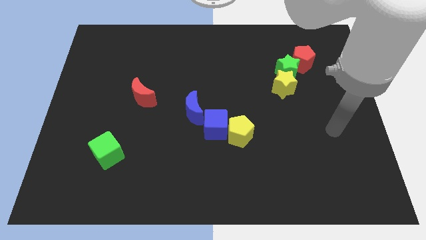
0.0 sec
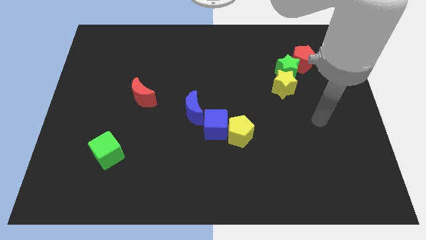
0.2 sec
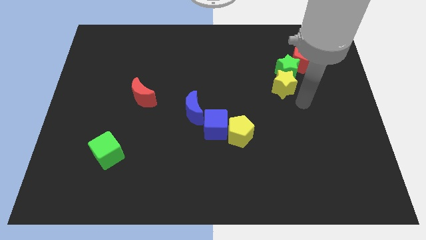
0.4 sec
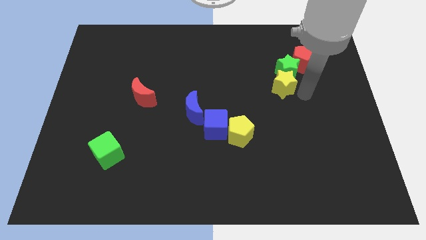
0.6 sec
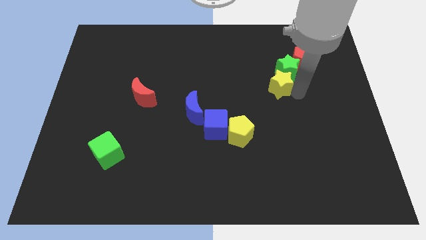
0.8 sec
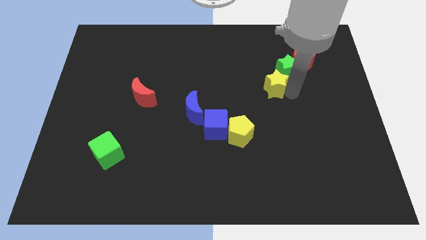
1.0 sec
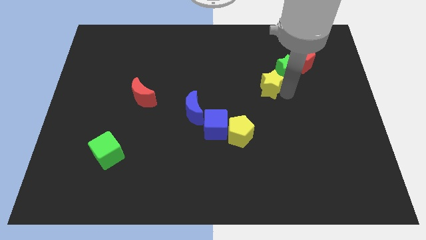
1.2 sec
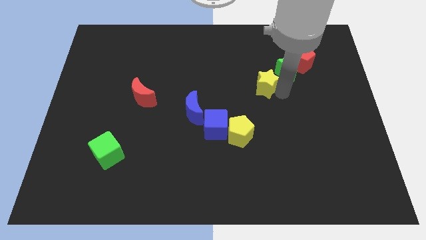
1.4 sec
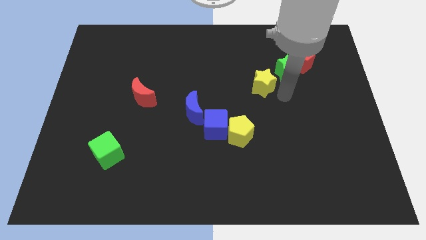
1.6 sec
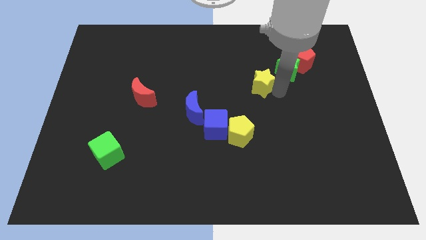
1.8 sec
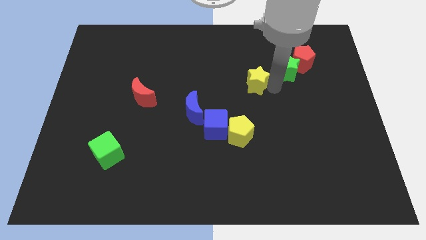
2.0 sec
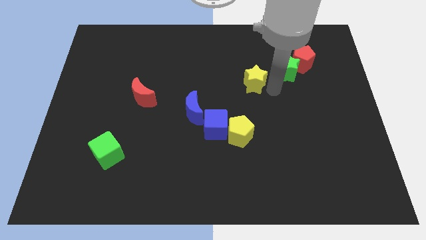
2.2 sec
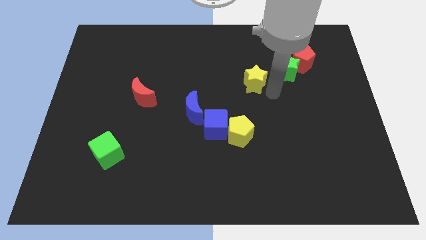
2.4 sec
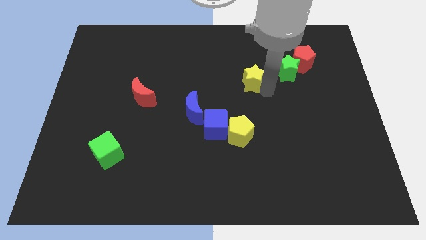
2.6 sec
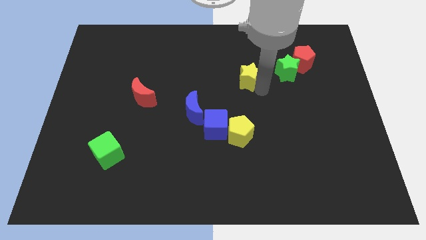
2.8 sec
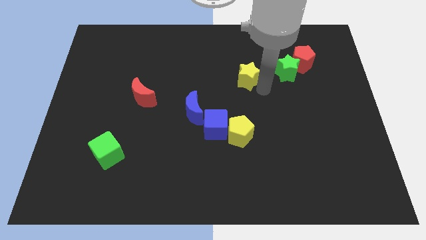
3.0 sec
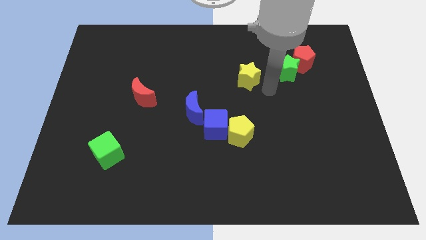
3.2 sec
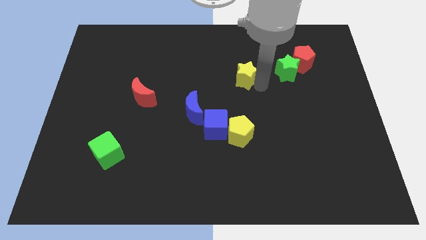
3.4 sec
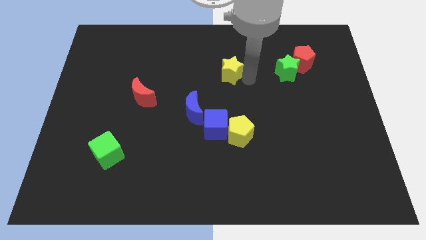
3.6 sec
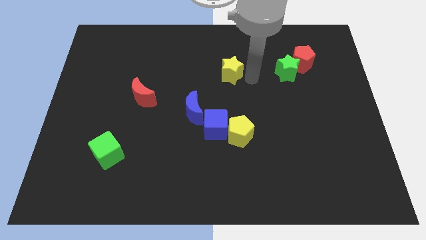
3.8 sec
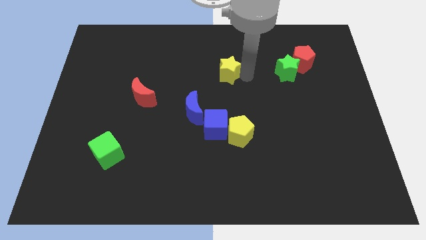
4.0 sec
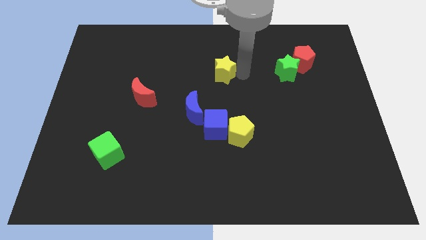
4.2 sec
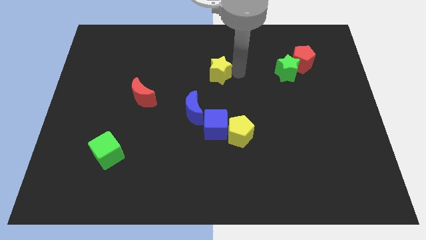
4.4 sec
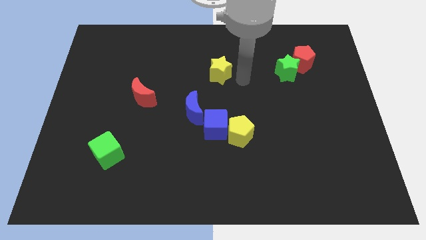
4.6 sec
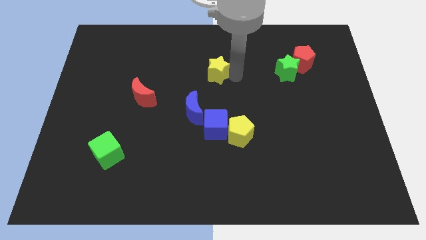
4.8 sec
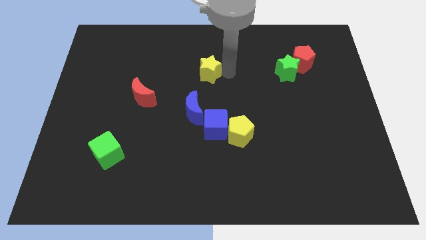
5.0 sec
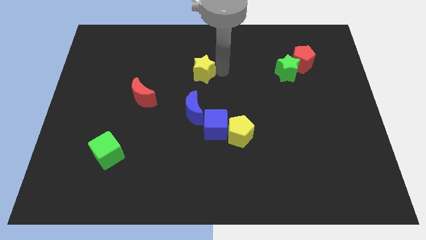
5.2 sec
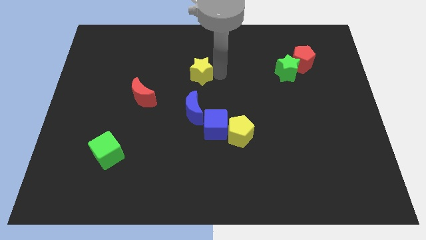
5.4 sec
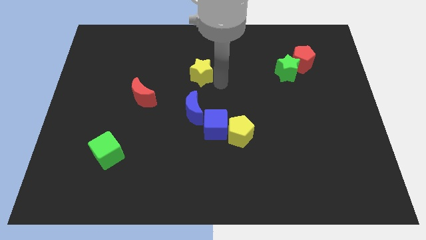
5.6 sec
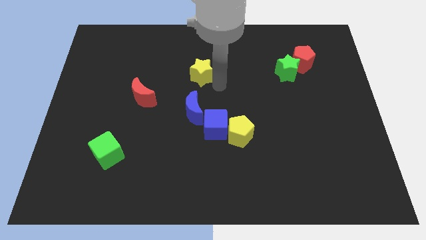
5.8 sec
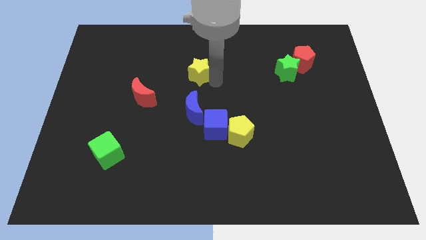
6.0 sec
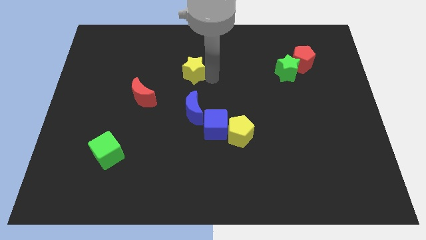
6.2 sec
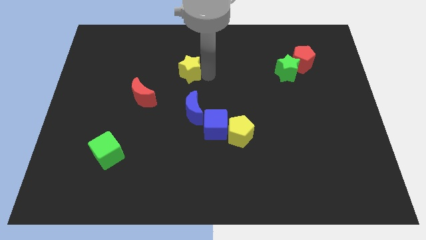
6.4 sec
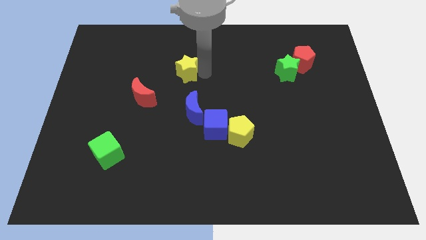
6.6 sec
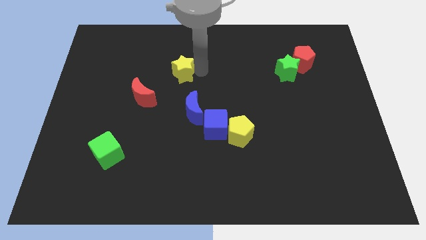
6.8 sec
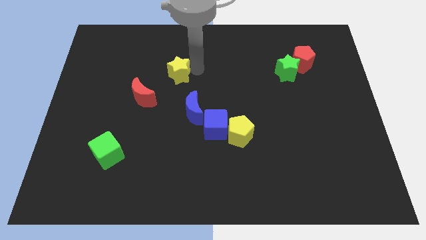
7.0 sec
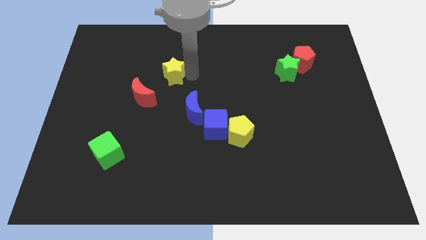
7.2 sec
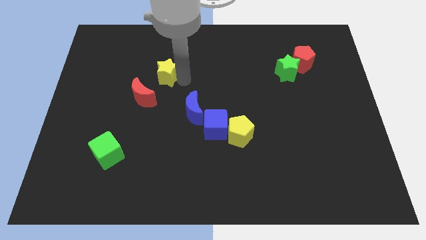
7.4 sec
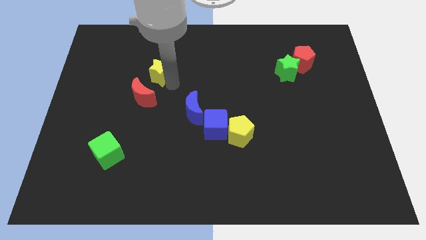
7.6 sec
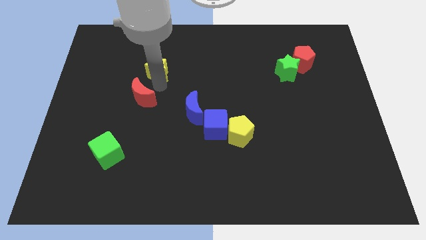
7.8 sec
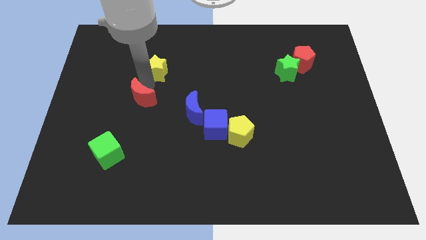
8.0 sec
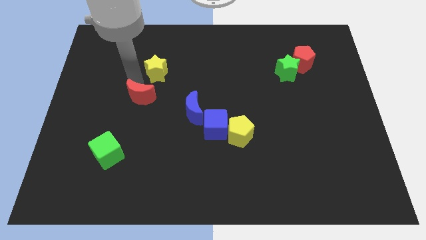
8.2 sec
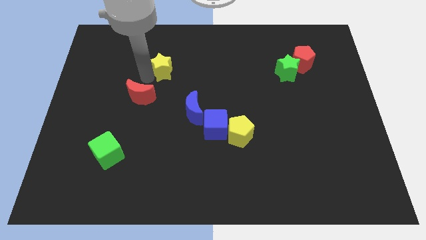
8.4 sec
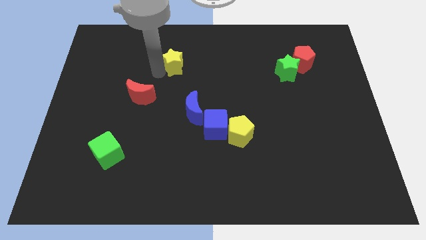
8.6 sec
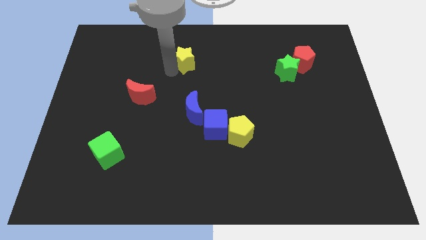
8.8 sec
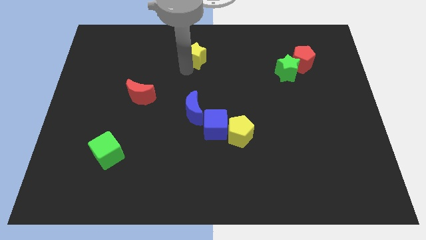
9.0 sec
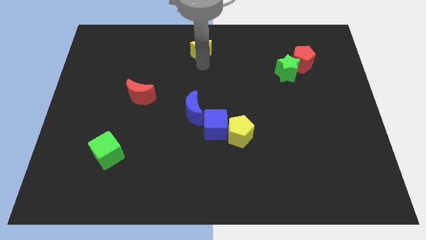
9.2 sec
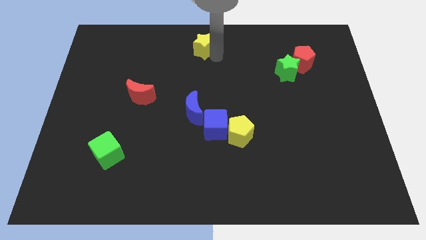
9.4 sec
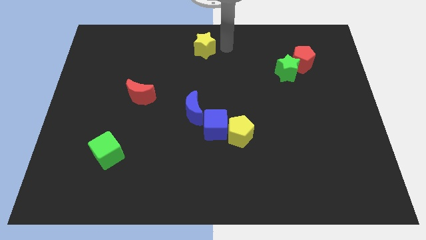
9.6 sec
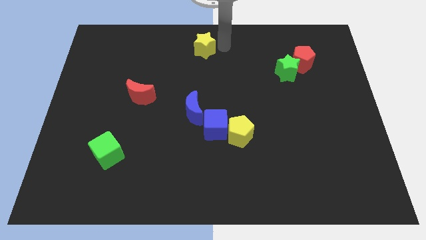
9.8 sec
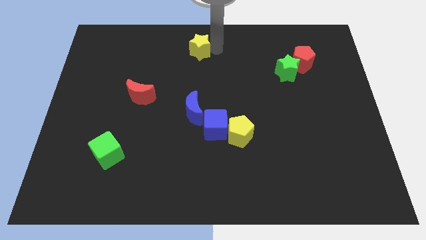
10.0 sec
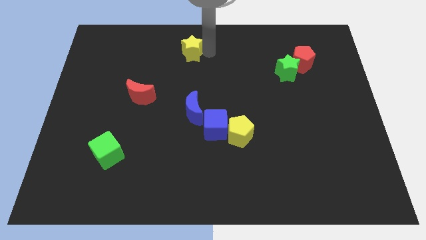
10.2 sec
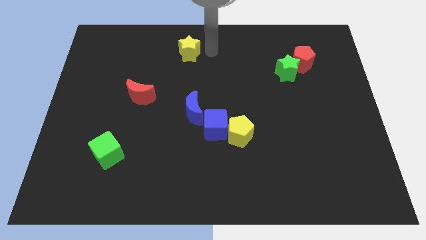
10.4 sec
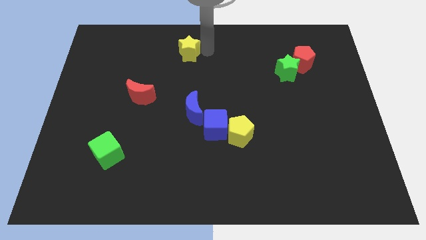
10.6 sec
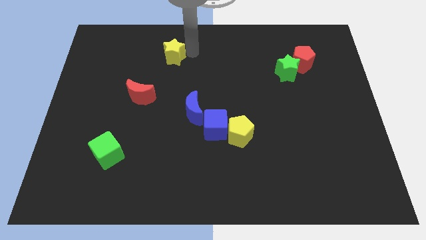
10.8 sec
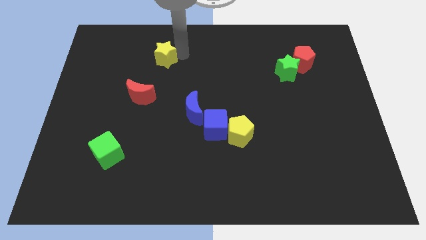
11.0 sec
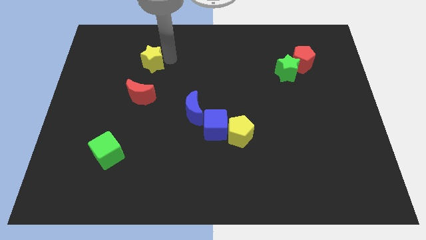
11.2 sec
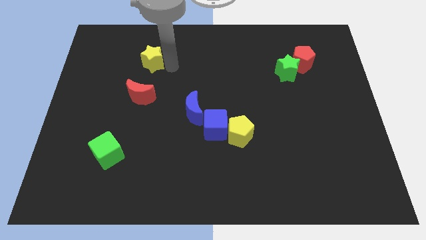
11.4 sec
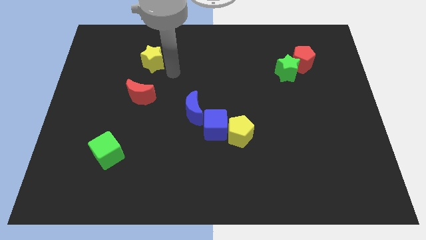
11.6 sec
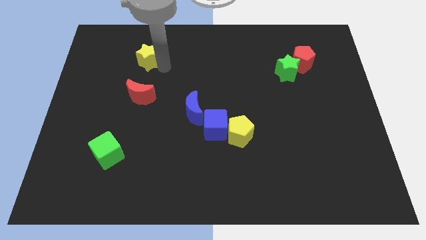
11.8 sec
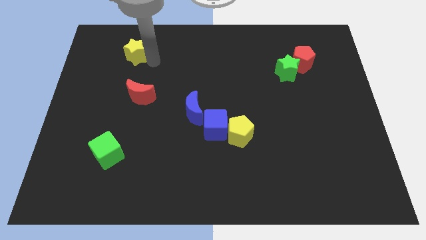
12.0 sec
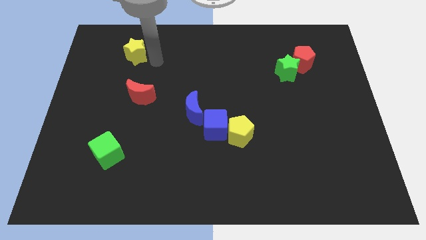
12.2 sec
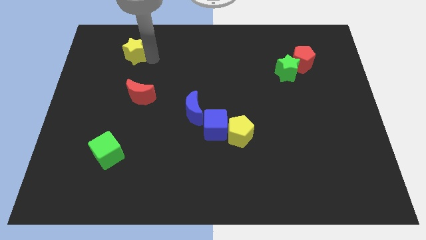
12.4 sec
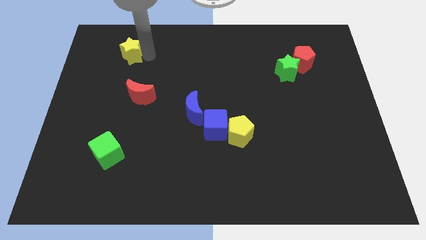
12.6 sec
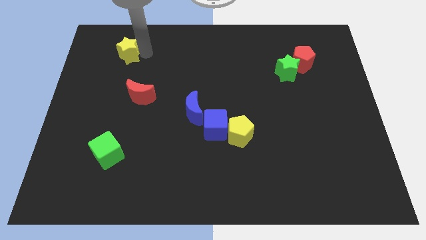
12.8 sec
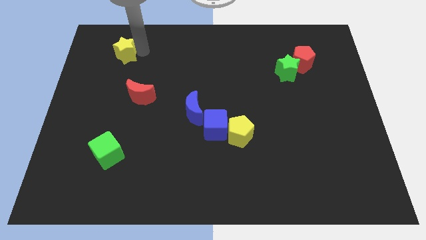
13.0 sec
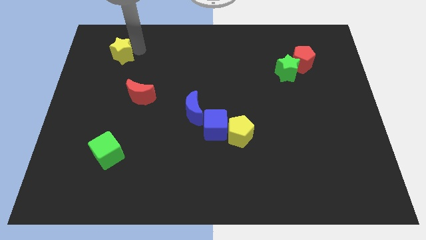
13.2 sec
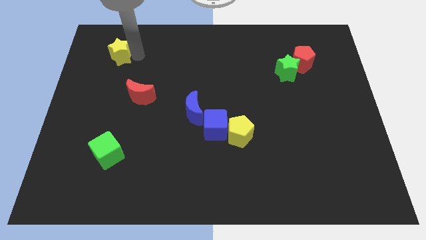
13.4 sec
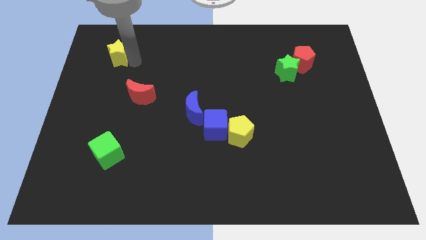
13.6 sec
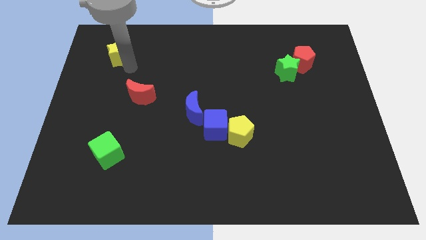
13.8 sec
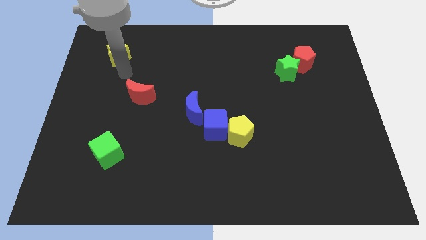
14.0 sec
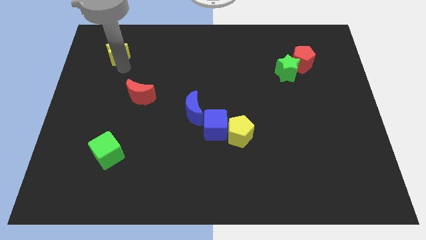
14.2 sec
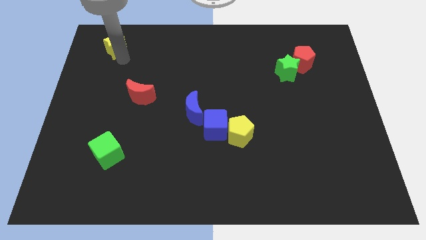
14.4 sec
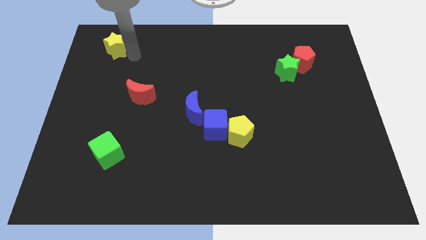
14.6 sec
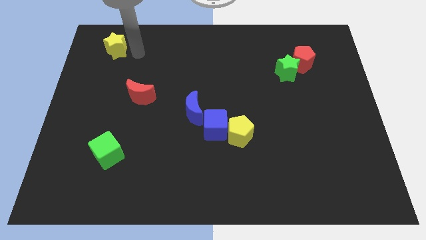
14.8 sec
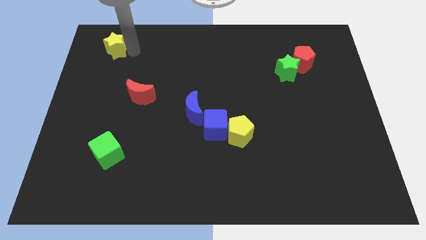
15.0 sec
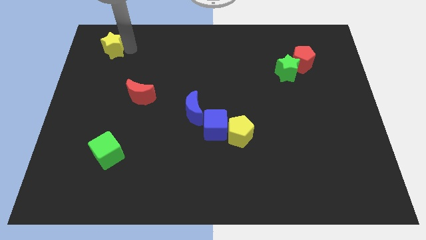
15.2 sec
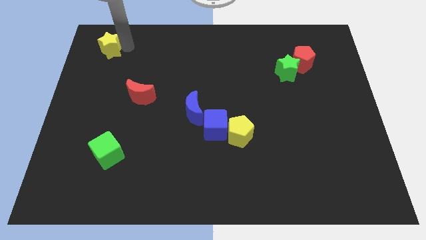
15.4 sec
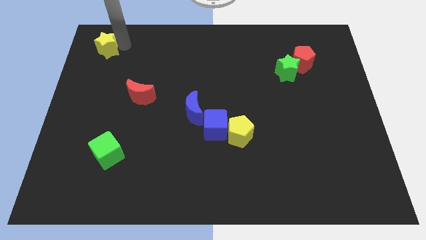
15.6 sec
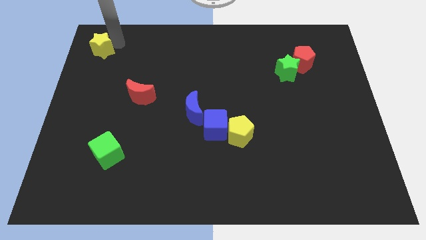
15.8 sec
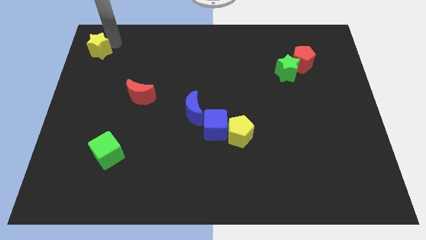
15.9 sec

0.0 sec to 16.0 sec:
push the yellow star to the top left of the board

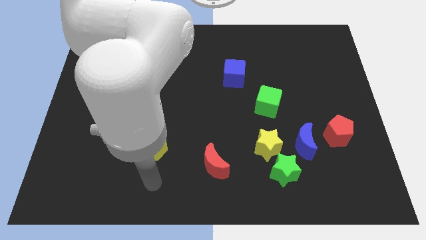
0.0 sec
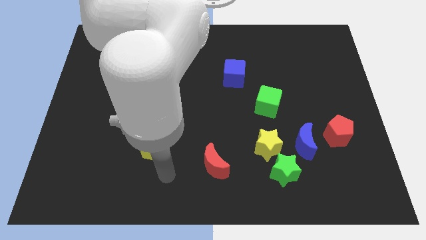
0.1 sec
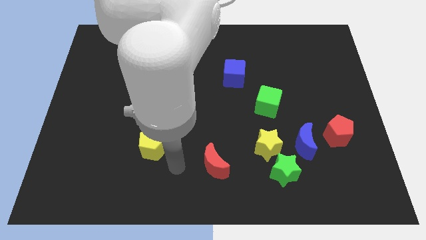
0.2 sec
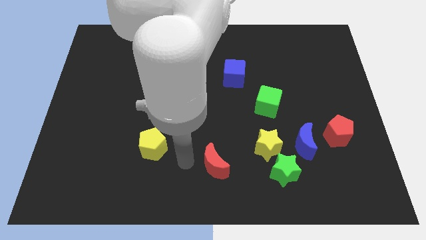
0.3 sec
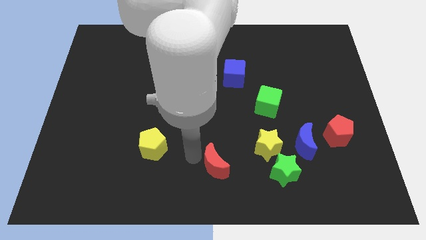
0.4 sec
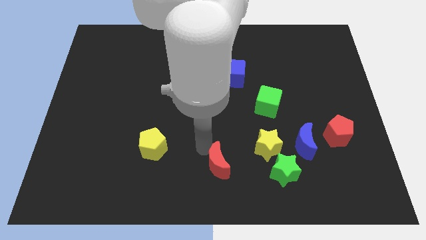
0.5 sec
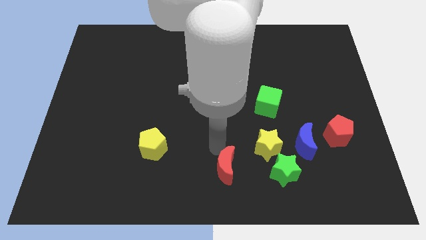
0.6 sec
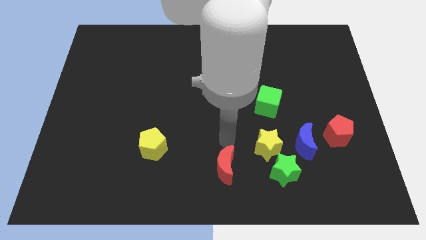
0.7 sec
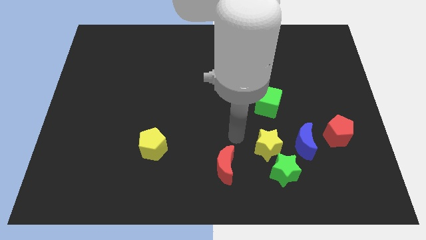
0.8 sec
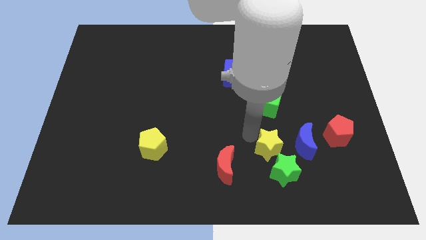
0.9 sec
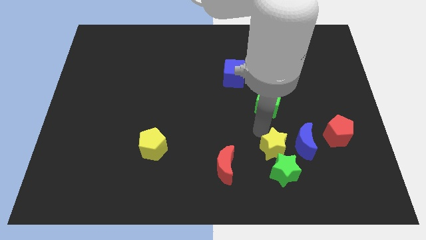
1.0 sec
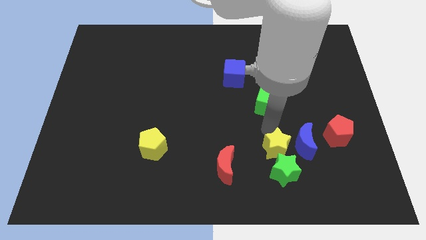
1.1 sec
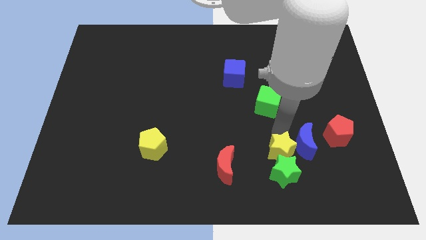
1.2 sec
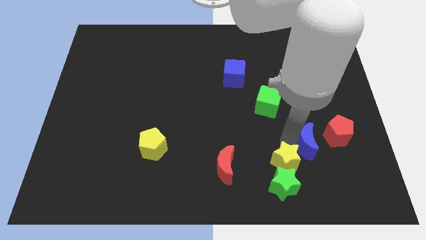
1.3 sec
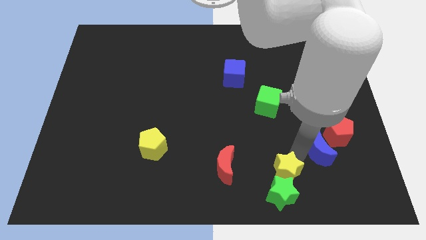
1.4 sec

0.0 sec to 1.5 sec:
slide the green star to the bottom side
